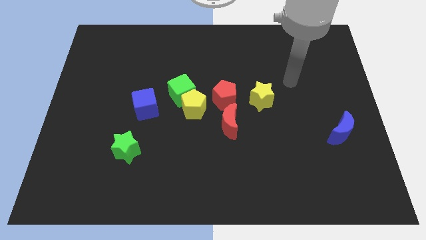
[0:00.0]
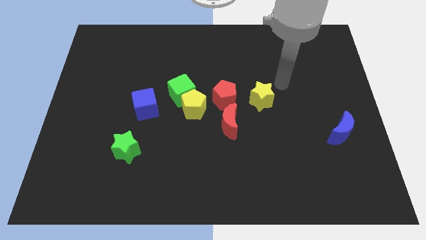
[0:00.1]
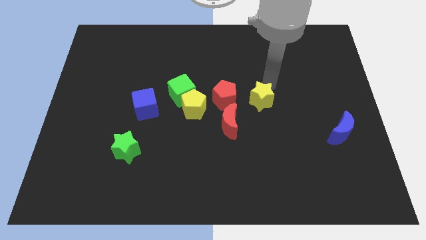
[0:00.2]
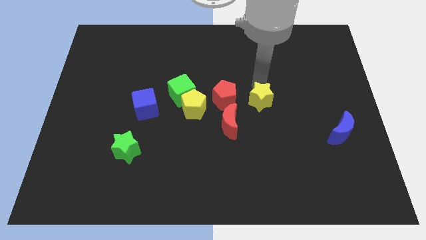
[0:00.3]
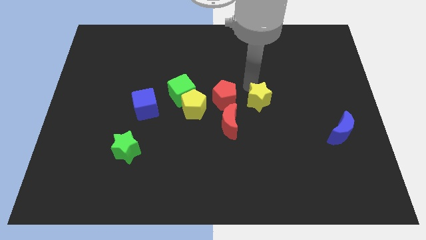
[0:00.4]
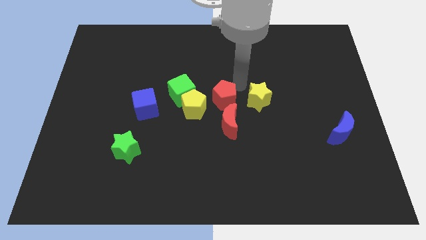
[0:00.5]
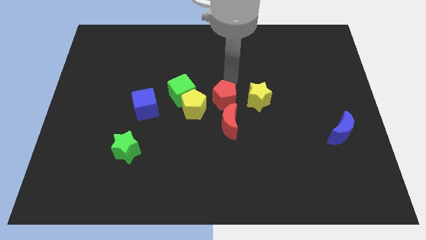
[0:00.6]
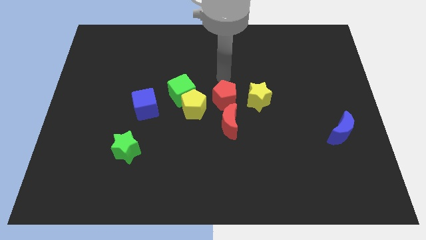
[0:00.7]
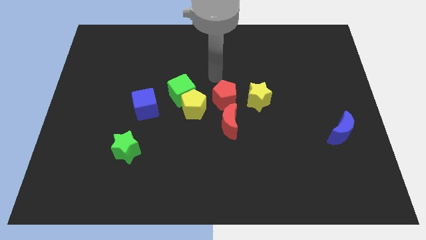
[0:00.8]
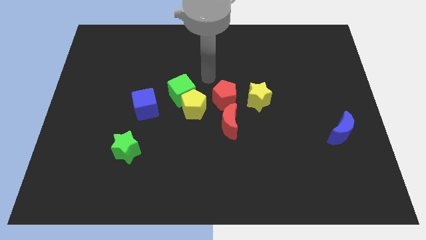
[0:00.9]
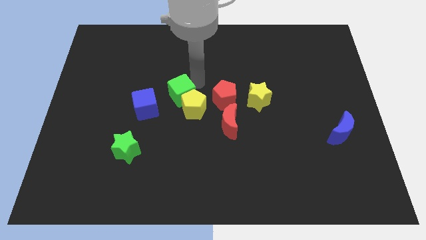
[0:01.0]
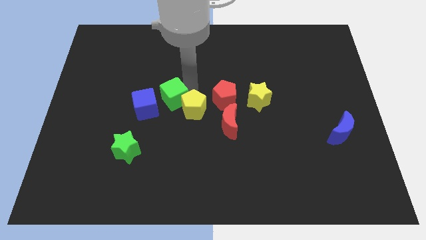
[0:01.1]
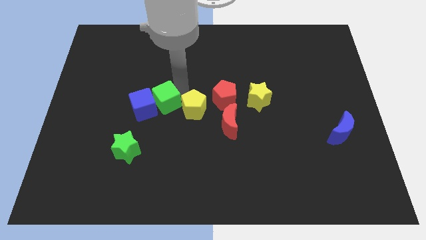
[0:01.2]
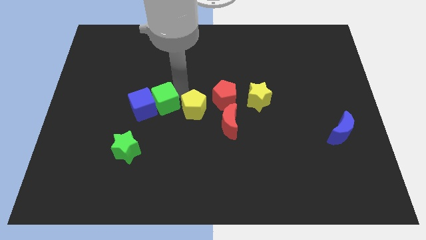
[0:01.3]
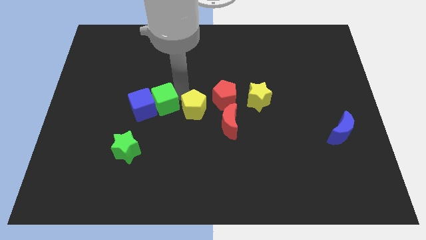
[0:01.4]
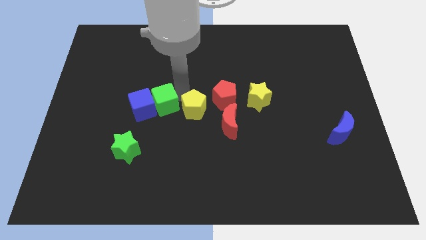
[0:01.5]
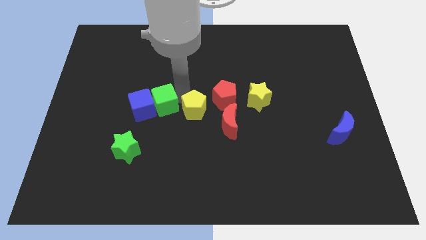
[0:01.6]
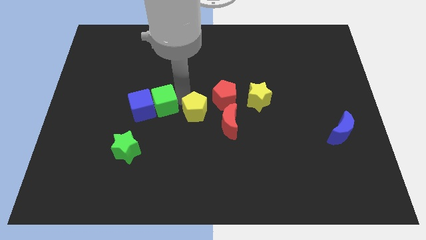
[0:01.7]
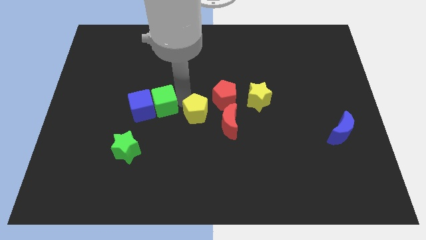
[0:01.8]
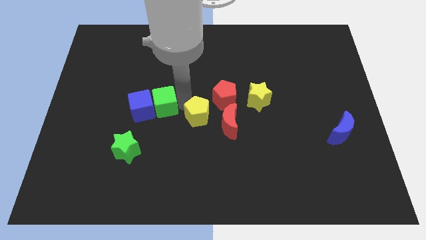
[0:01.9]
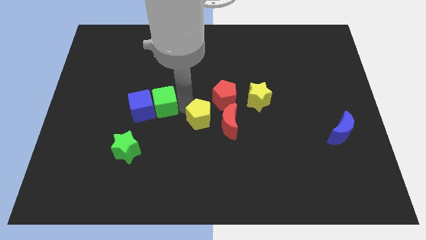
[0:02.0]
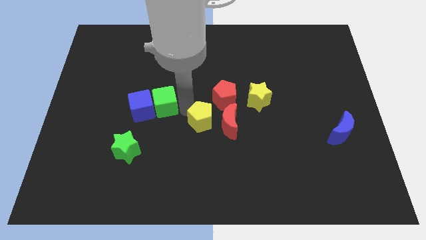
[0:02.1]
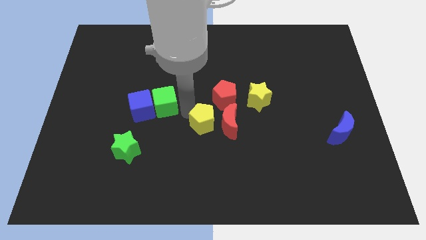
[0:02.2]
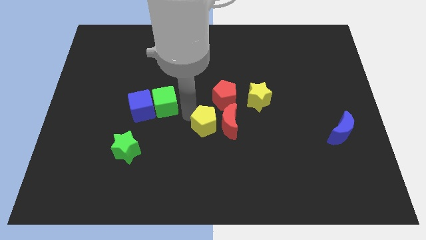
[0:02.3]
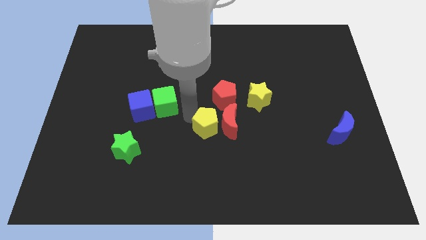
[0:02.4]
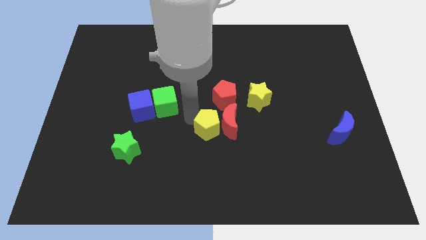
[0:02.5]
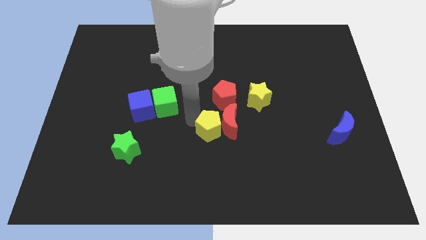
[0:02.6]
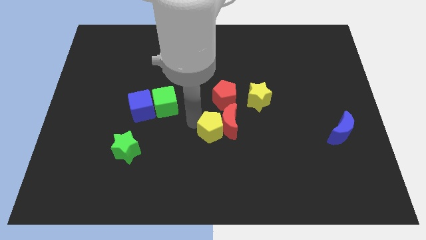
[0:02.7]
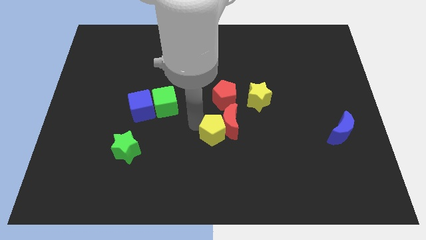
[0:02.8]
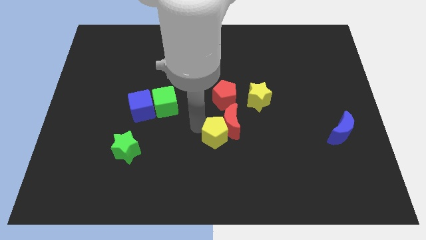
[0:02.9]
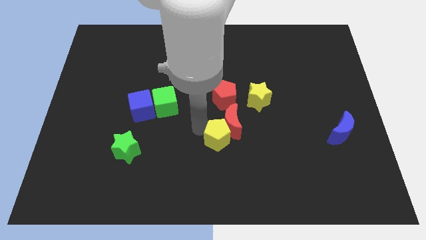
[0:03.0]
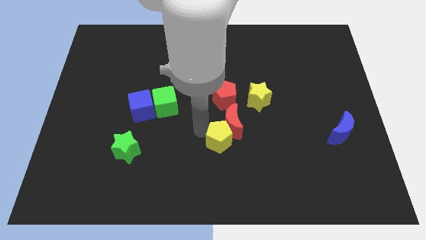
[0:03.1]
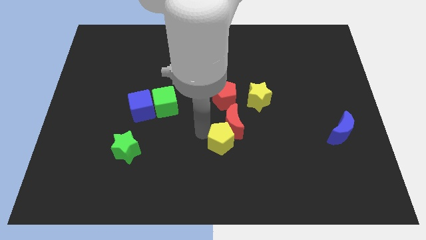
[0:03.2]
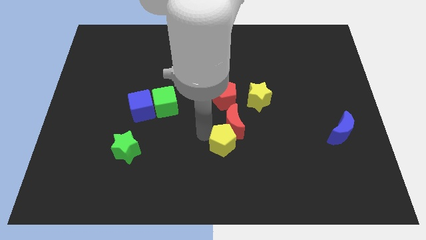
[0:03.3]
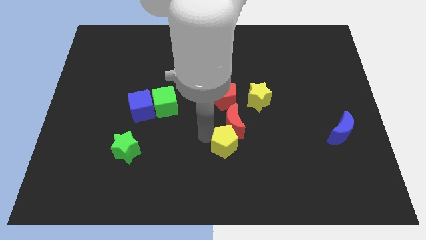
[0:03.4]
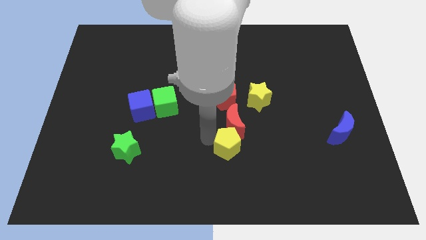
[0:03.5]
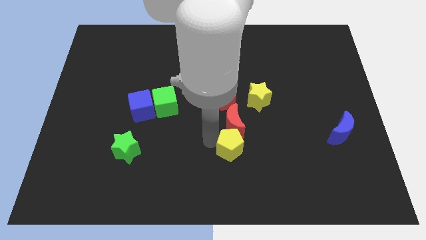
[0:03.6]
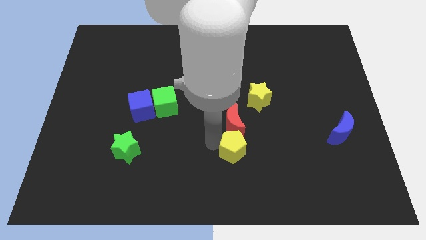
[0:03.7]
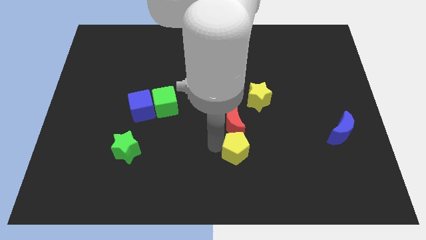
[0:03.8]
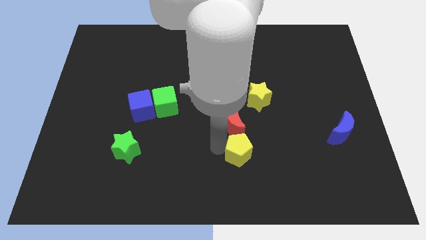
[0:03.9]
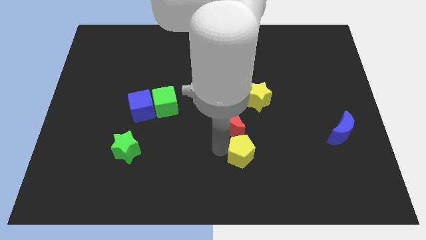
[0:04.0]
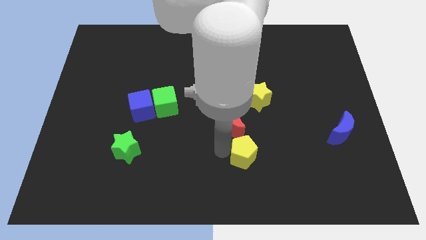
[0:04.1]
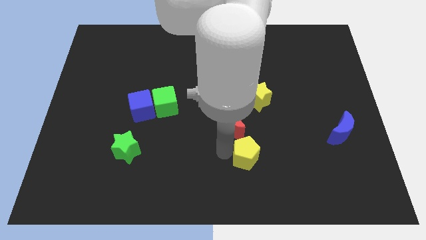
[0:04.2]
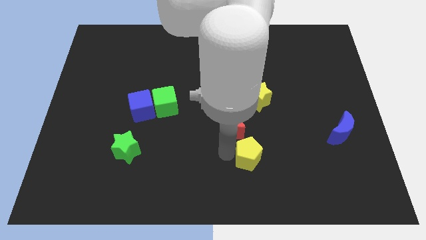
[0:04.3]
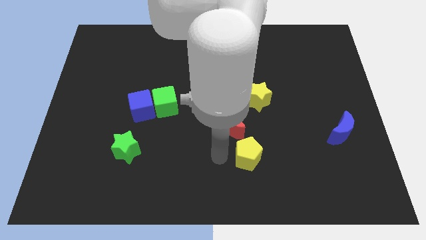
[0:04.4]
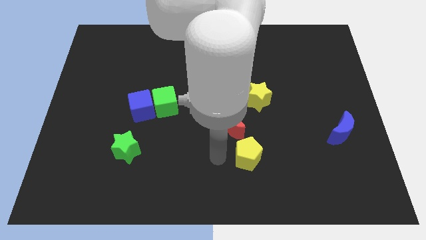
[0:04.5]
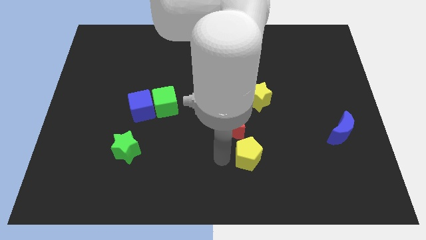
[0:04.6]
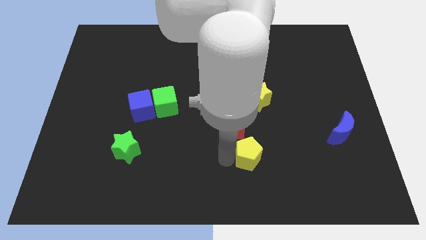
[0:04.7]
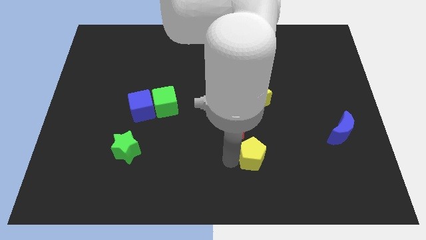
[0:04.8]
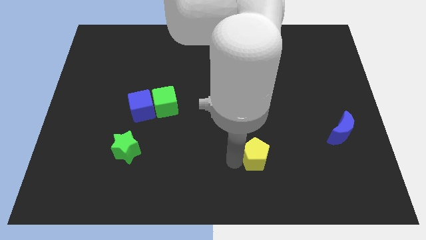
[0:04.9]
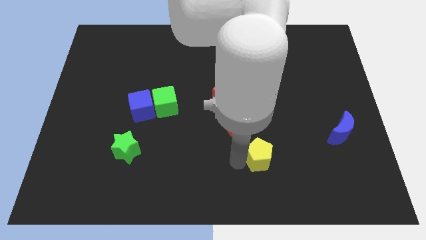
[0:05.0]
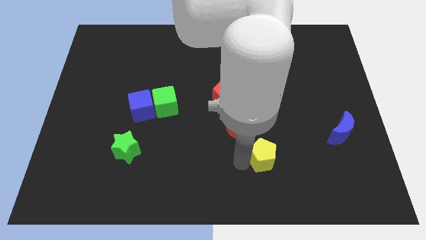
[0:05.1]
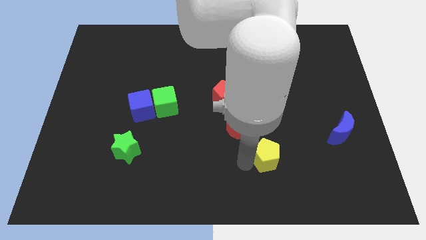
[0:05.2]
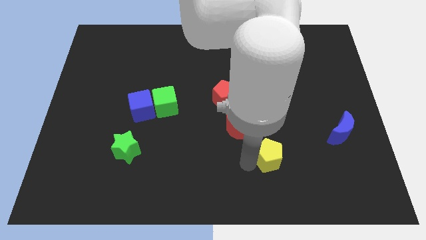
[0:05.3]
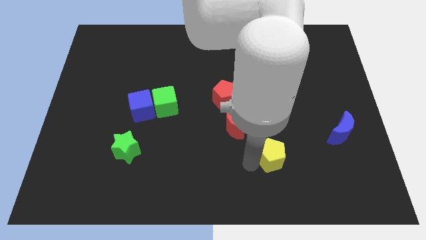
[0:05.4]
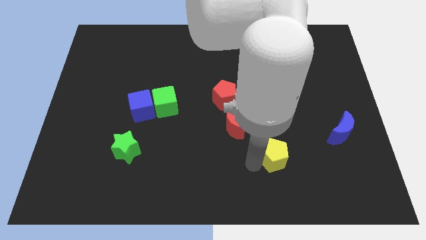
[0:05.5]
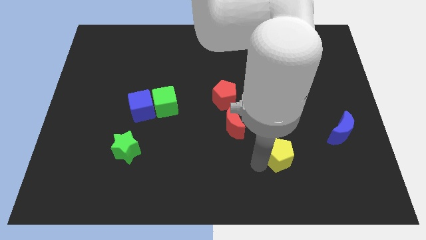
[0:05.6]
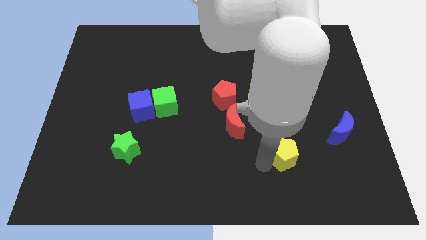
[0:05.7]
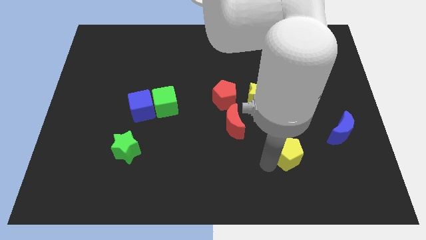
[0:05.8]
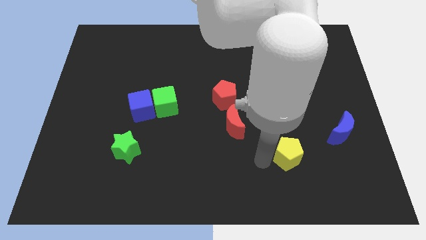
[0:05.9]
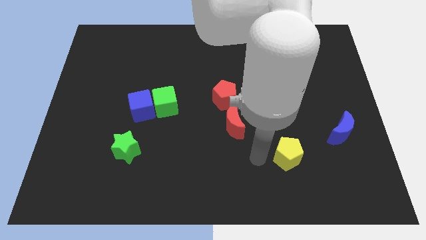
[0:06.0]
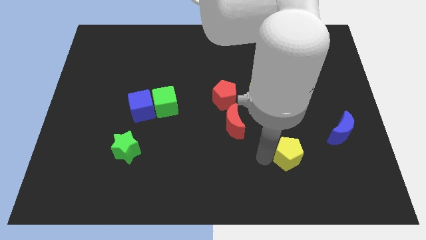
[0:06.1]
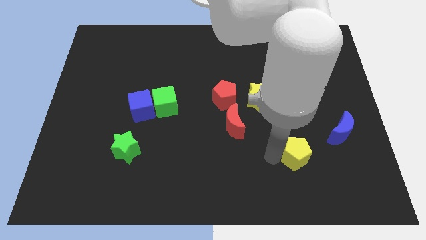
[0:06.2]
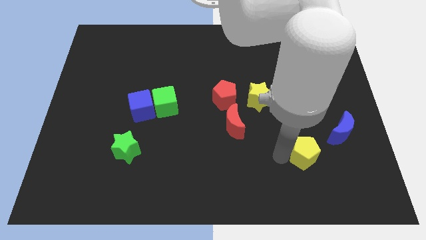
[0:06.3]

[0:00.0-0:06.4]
move the yellow pentagon to the bottom left of the blue moon

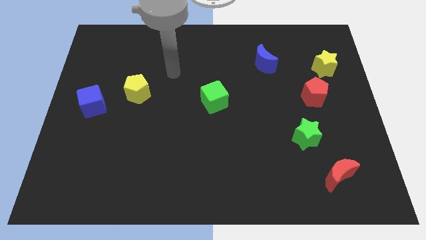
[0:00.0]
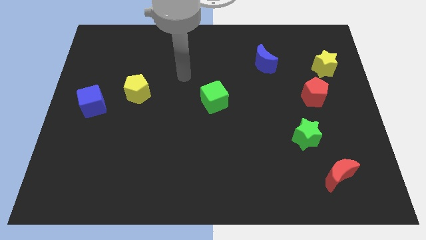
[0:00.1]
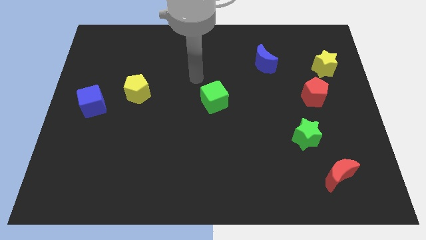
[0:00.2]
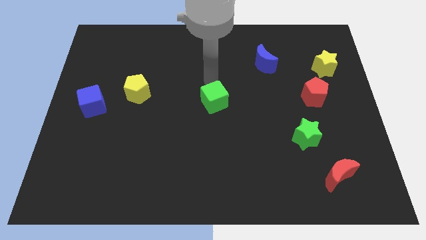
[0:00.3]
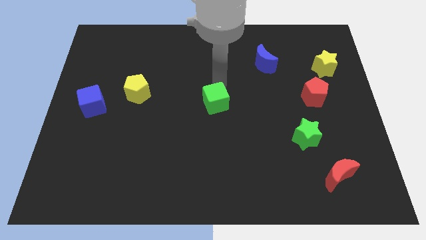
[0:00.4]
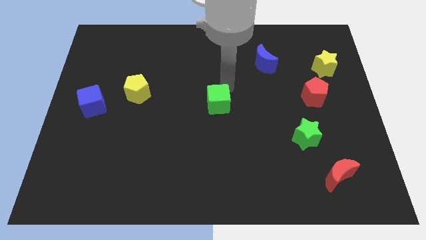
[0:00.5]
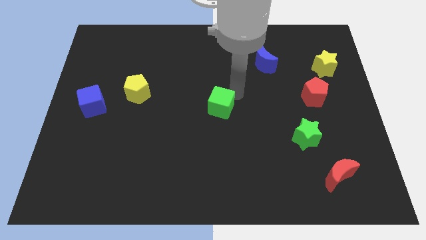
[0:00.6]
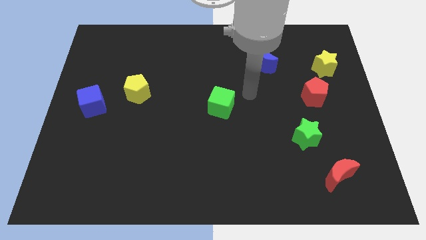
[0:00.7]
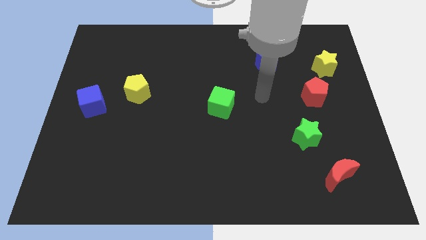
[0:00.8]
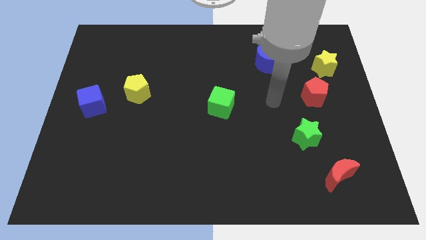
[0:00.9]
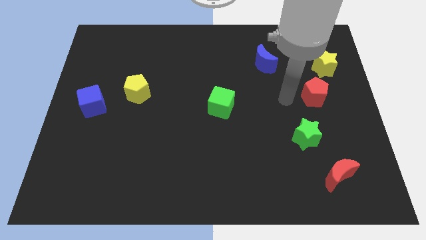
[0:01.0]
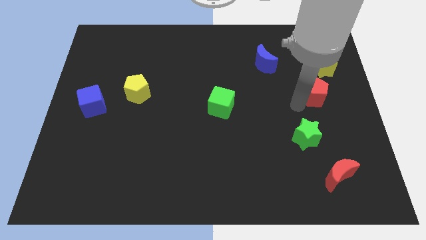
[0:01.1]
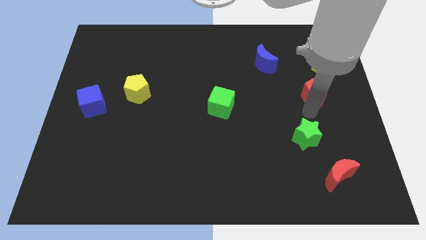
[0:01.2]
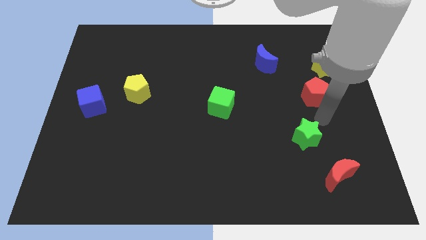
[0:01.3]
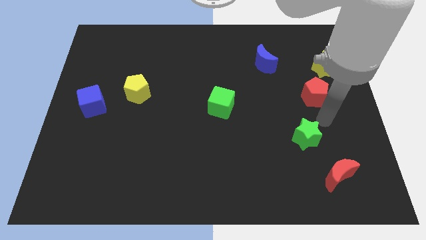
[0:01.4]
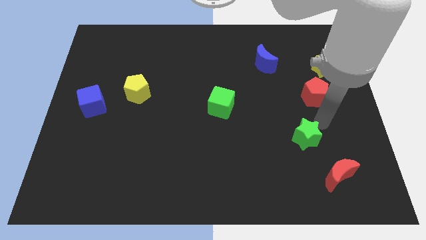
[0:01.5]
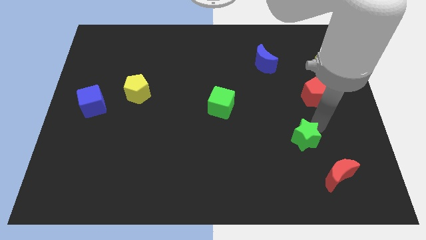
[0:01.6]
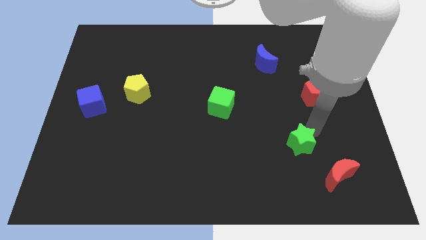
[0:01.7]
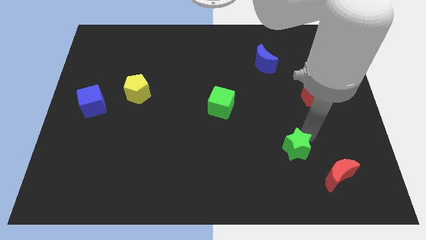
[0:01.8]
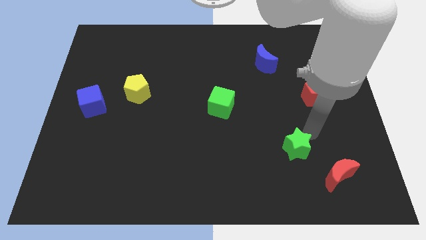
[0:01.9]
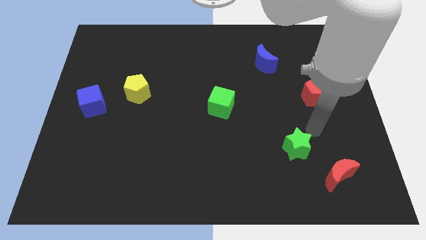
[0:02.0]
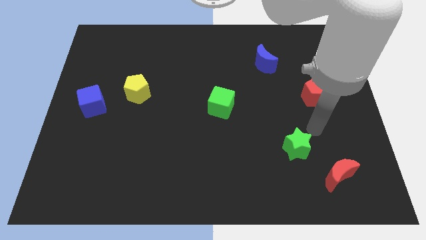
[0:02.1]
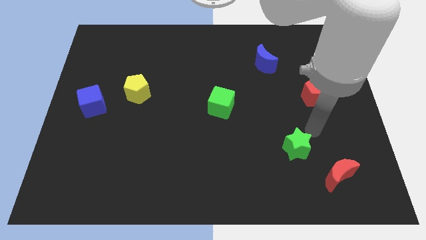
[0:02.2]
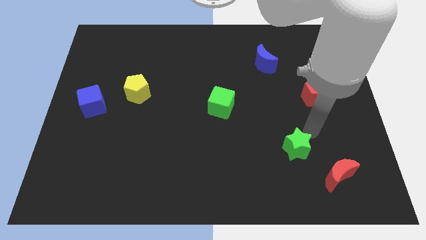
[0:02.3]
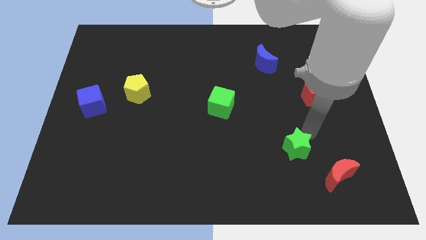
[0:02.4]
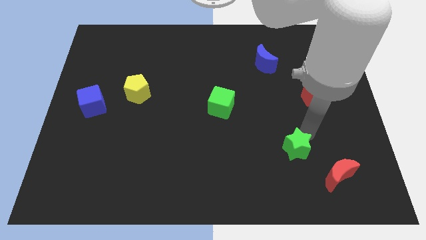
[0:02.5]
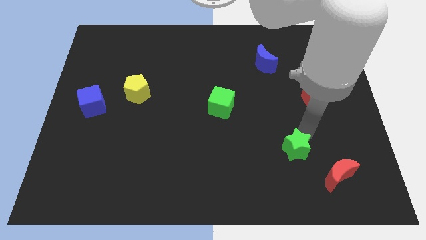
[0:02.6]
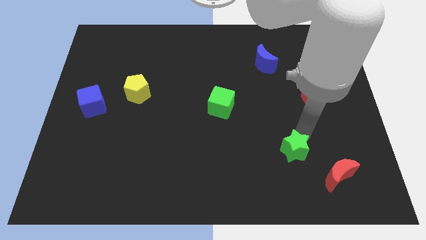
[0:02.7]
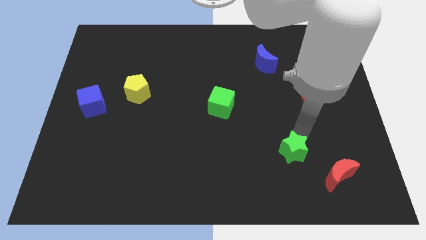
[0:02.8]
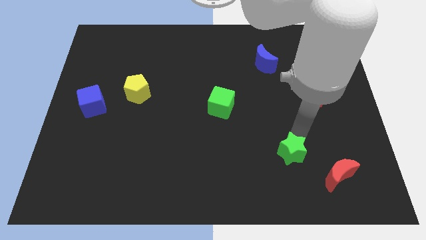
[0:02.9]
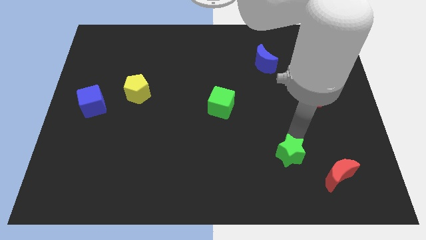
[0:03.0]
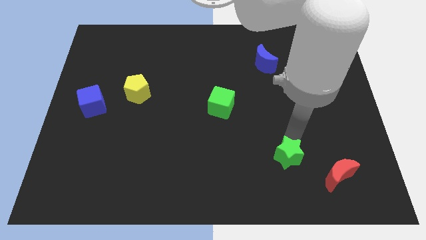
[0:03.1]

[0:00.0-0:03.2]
put the green star to the left side of the red moon
